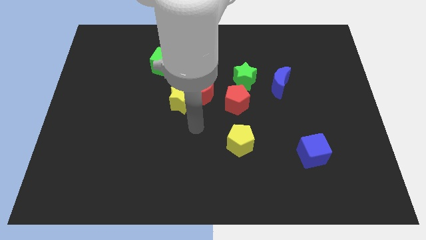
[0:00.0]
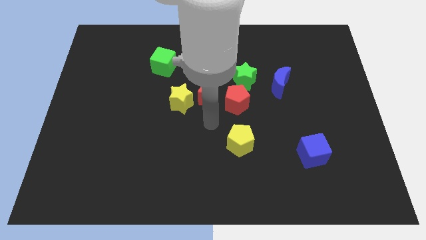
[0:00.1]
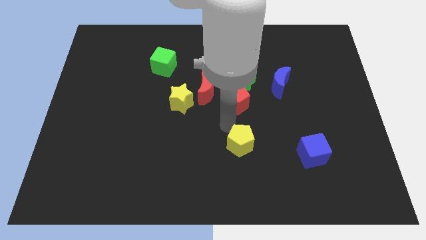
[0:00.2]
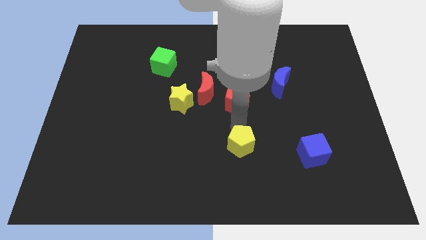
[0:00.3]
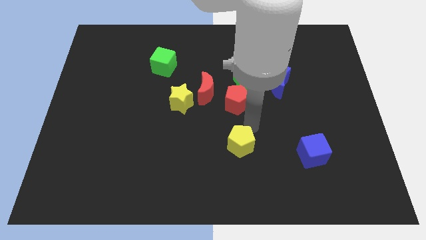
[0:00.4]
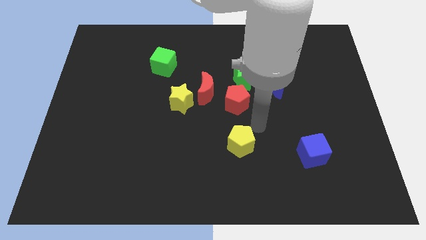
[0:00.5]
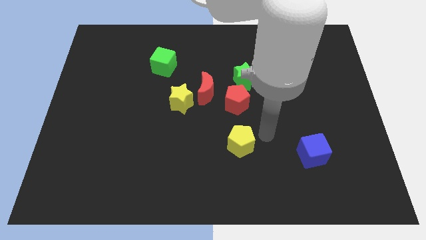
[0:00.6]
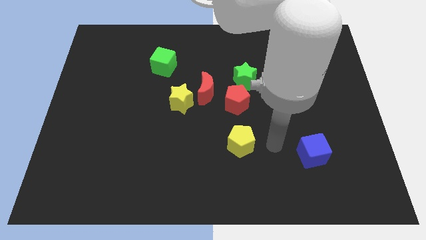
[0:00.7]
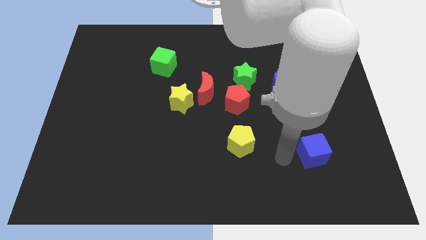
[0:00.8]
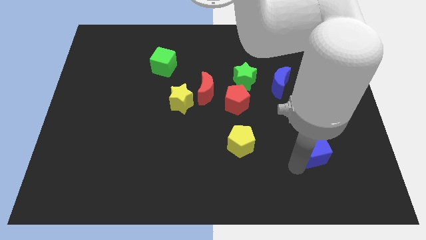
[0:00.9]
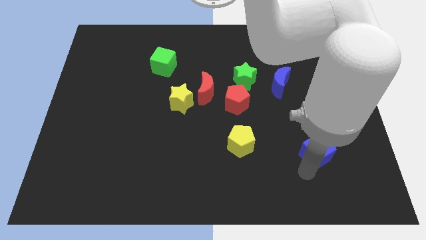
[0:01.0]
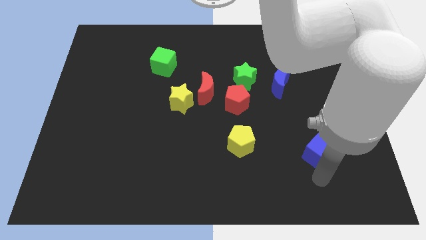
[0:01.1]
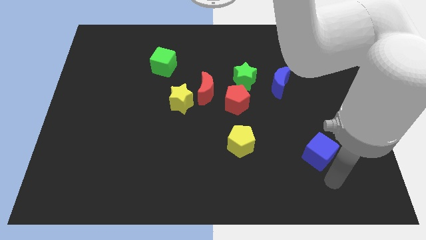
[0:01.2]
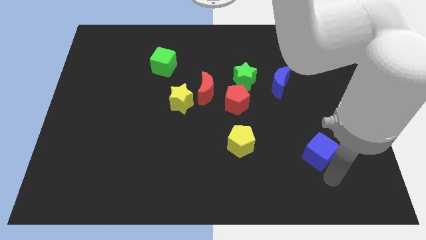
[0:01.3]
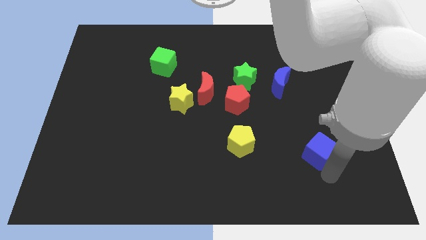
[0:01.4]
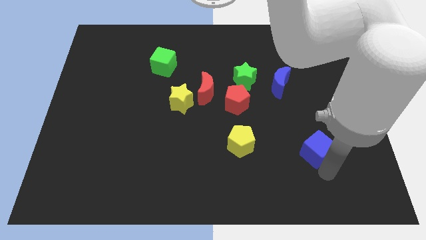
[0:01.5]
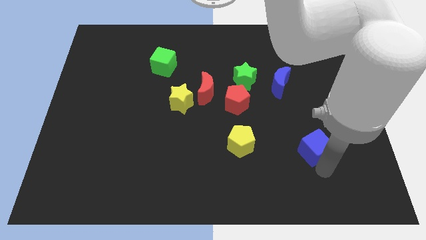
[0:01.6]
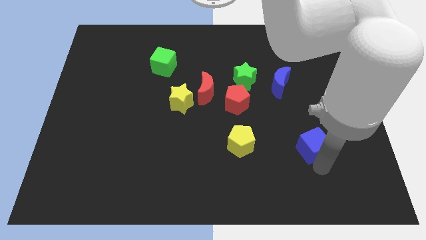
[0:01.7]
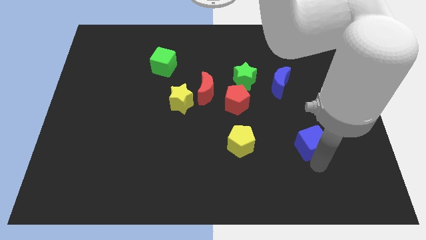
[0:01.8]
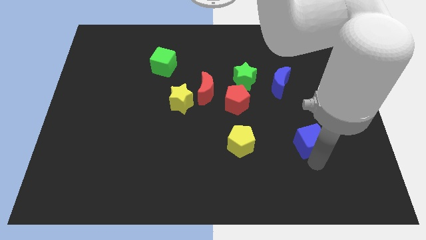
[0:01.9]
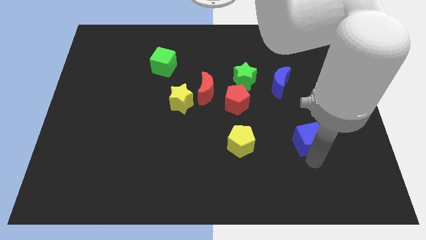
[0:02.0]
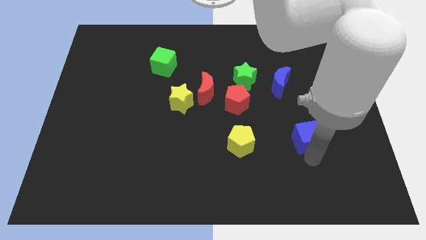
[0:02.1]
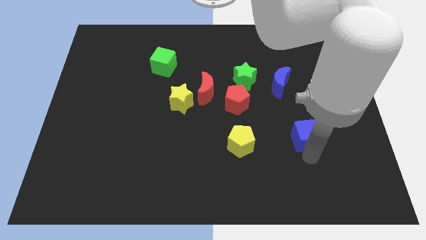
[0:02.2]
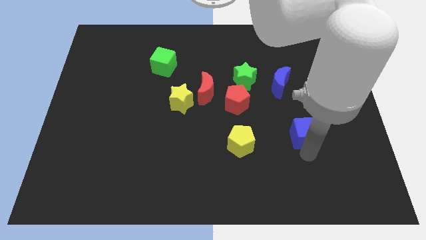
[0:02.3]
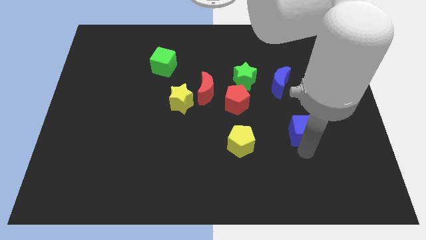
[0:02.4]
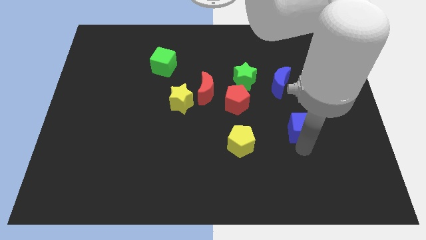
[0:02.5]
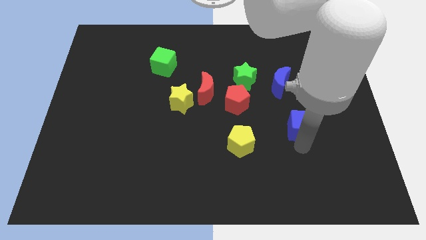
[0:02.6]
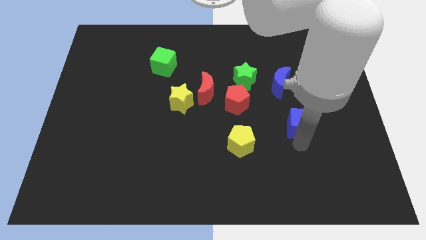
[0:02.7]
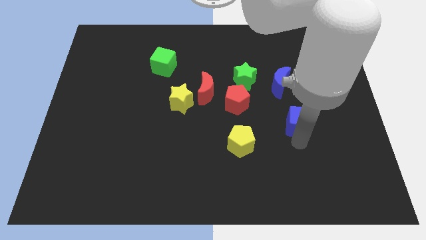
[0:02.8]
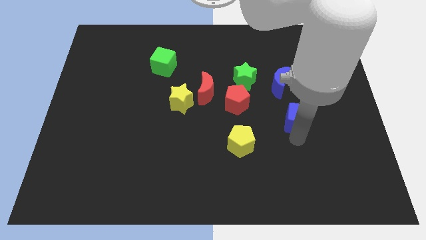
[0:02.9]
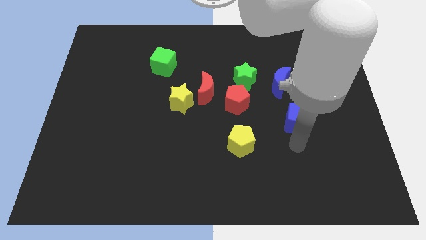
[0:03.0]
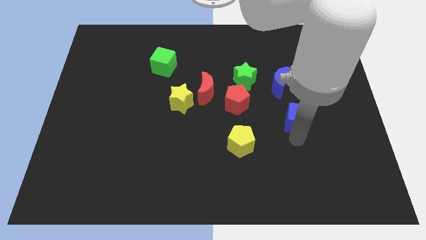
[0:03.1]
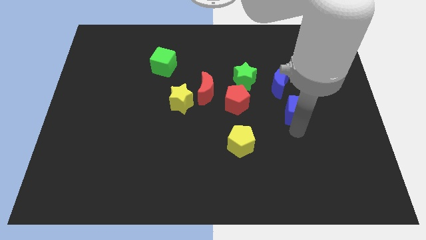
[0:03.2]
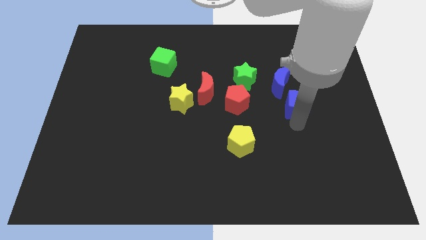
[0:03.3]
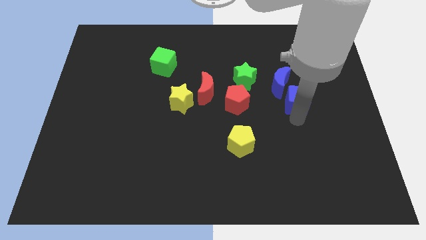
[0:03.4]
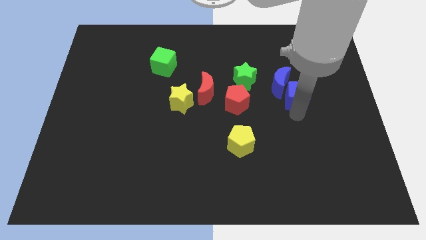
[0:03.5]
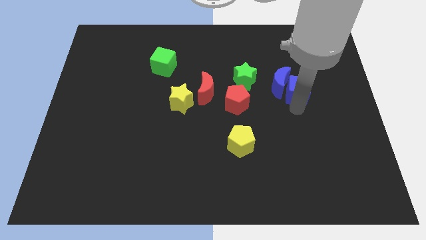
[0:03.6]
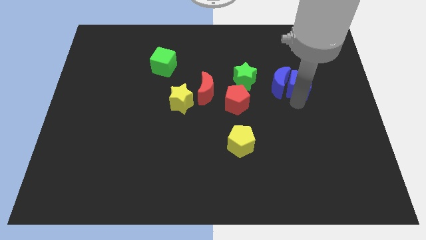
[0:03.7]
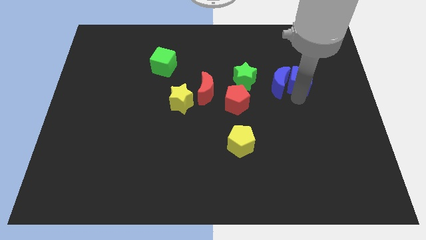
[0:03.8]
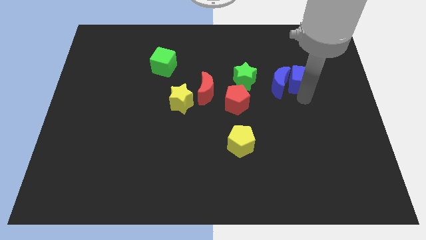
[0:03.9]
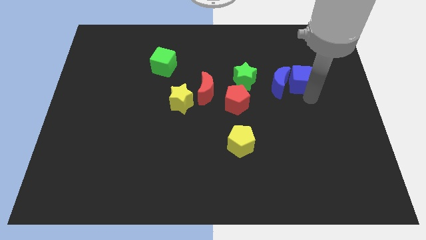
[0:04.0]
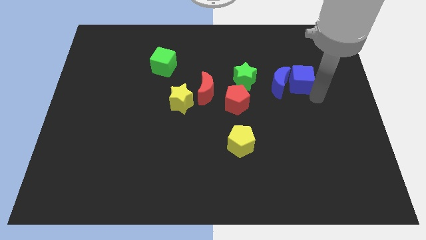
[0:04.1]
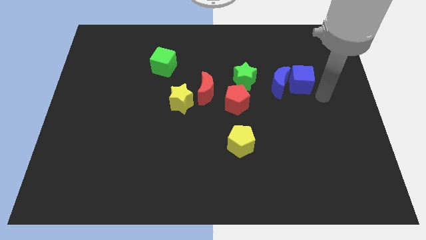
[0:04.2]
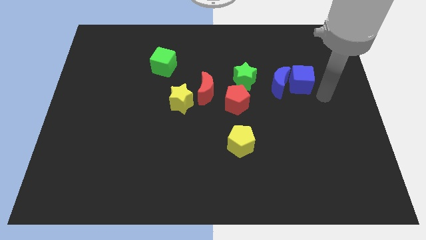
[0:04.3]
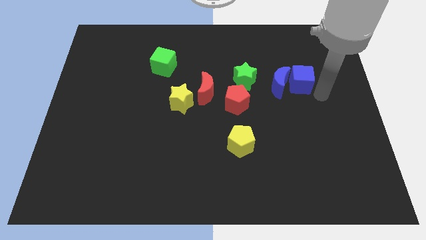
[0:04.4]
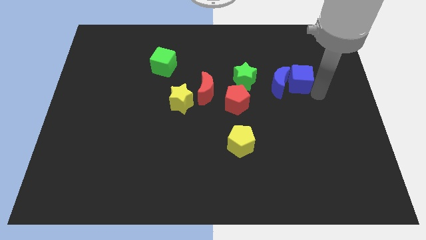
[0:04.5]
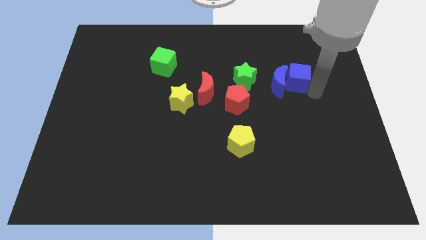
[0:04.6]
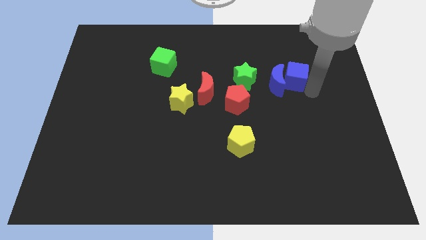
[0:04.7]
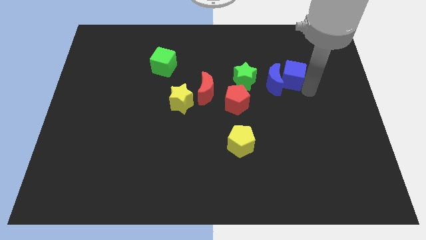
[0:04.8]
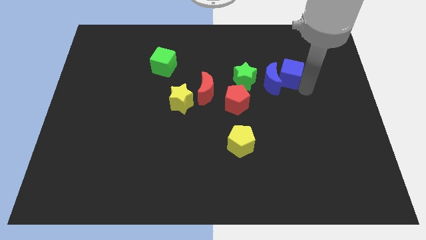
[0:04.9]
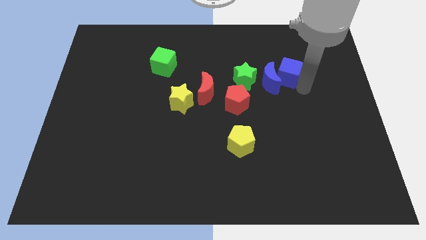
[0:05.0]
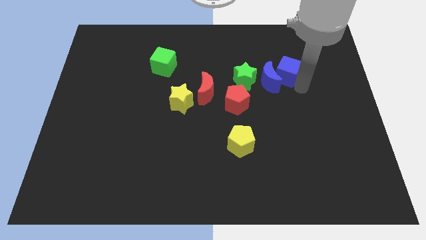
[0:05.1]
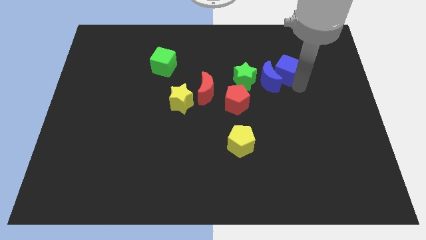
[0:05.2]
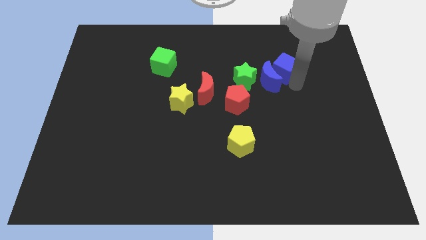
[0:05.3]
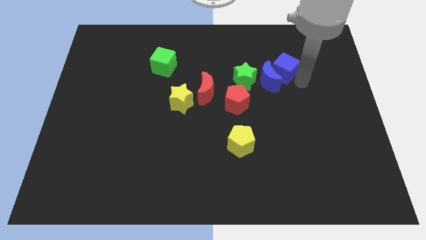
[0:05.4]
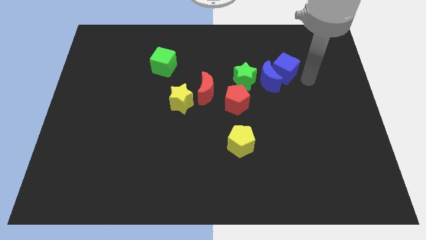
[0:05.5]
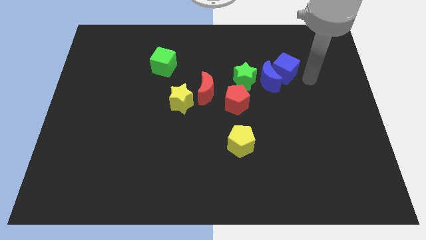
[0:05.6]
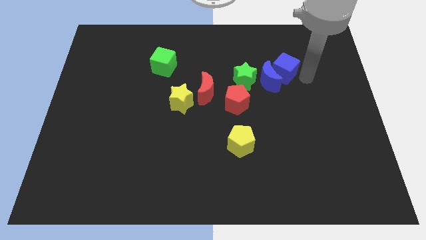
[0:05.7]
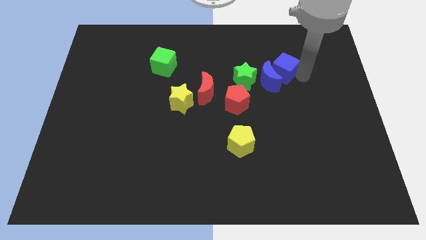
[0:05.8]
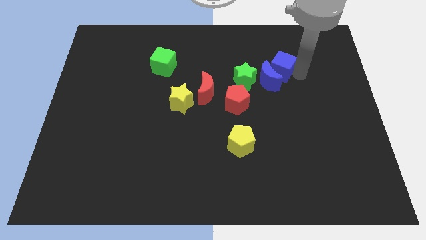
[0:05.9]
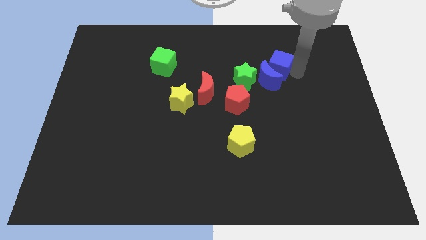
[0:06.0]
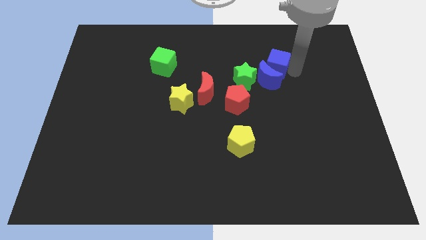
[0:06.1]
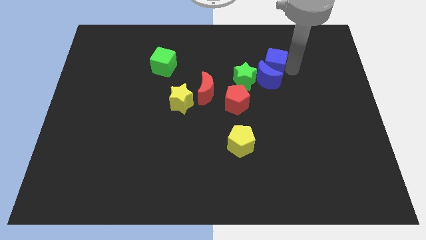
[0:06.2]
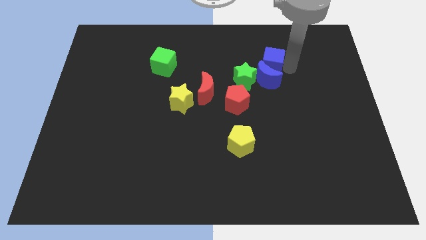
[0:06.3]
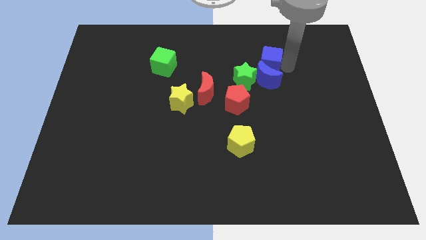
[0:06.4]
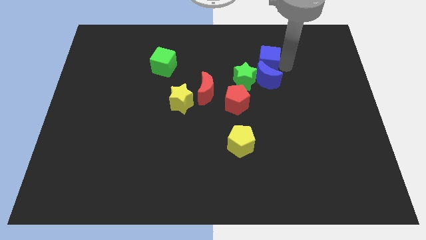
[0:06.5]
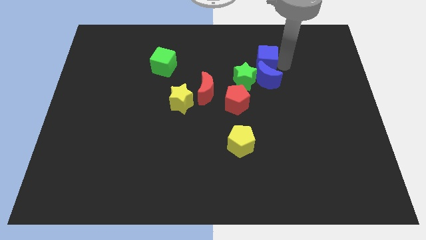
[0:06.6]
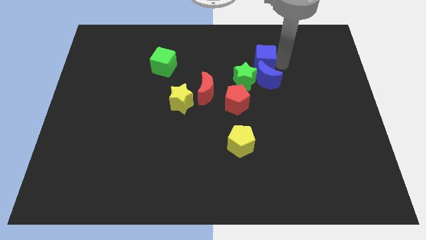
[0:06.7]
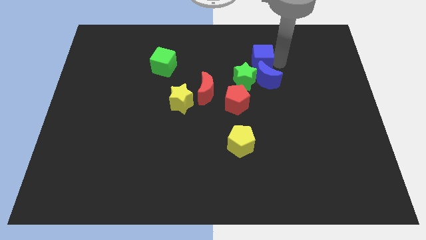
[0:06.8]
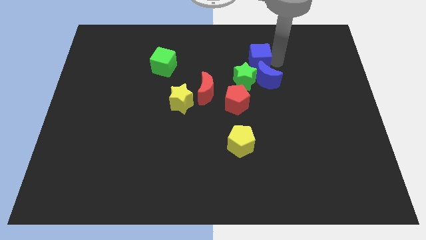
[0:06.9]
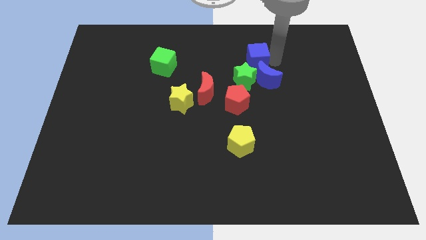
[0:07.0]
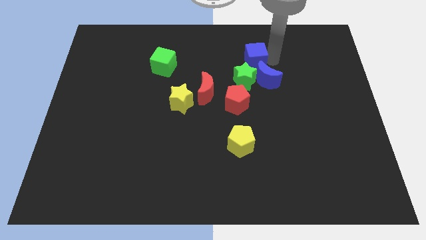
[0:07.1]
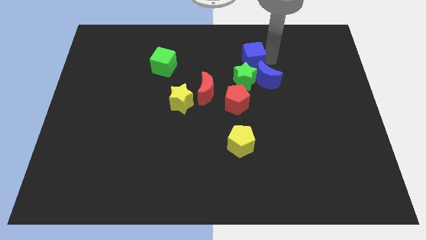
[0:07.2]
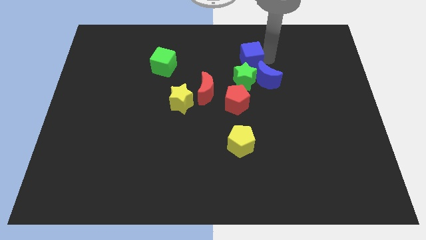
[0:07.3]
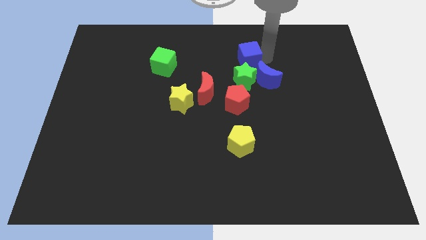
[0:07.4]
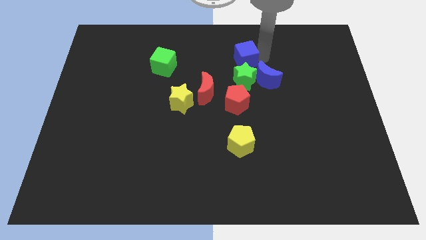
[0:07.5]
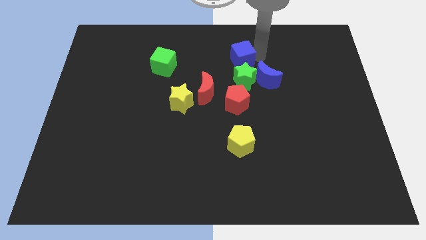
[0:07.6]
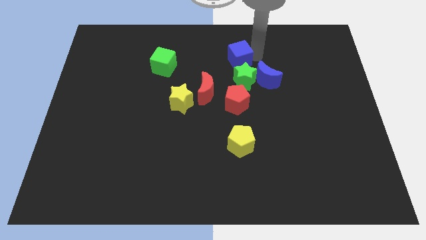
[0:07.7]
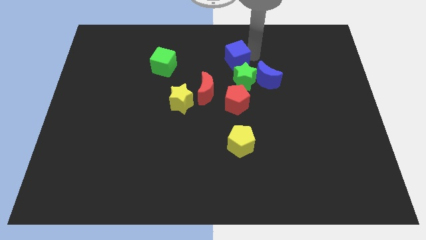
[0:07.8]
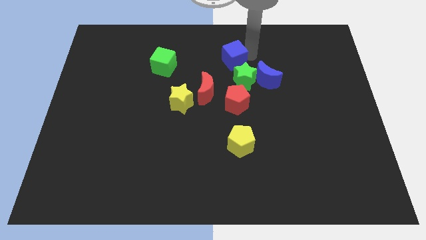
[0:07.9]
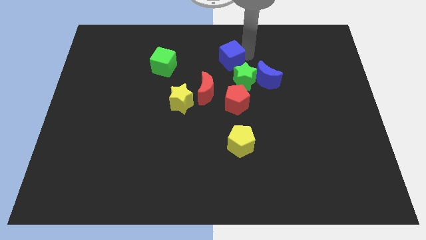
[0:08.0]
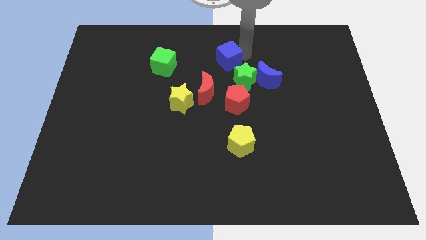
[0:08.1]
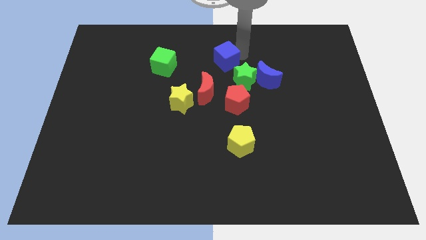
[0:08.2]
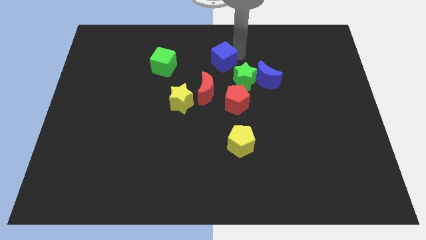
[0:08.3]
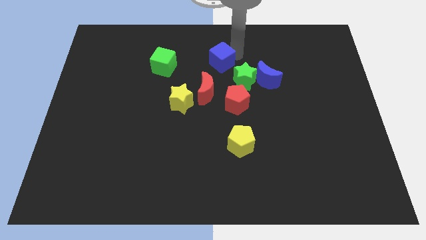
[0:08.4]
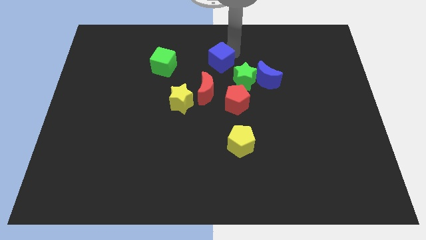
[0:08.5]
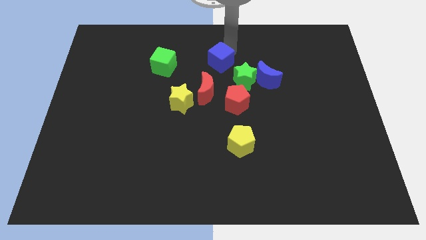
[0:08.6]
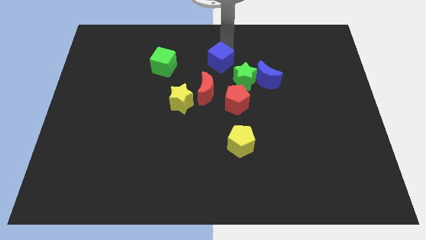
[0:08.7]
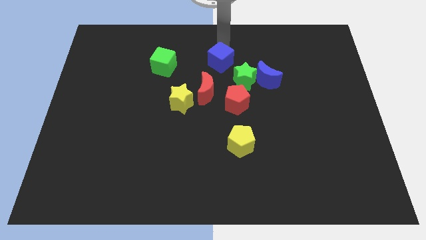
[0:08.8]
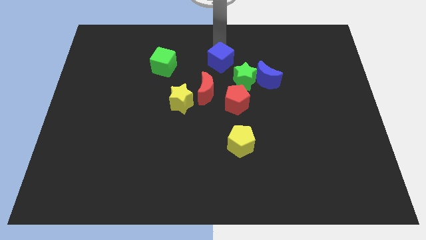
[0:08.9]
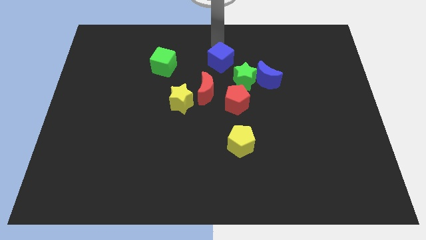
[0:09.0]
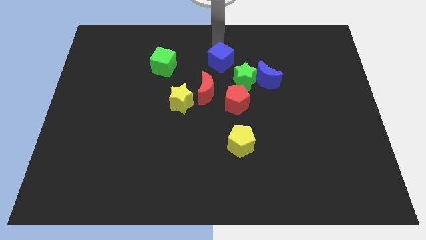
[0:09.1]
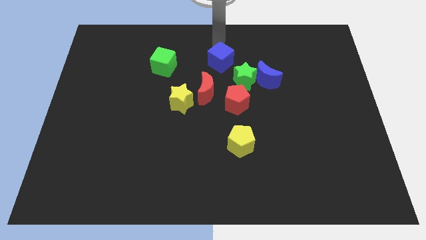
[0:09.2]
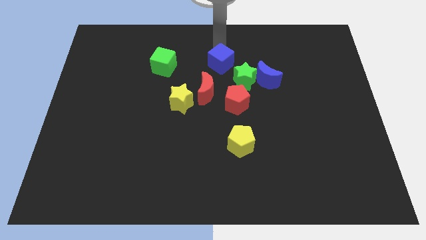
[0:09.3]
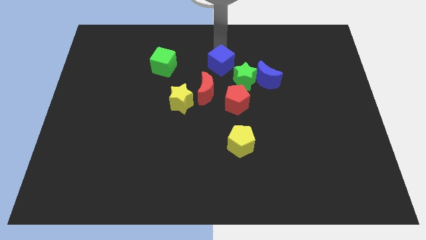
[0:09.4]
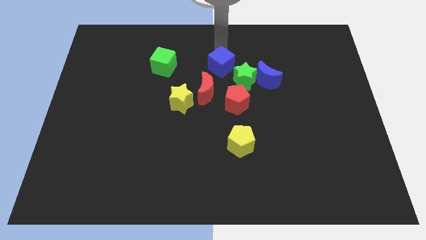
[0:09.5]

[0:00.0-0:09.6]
put the blue cube to the left of the blue moon
